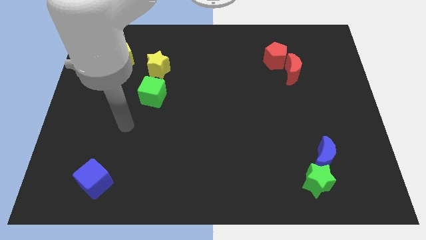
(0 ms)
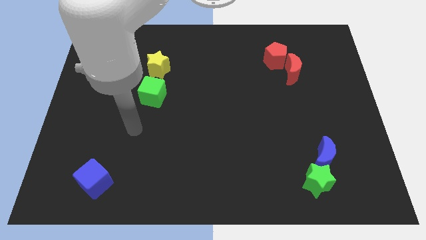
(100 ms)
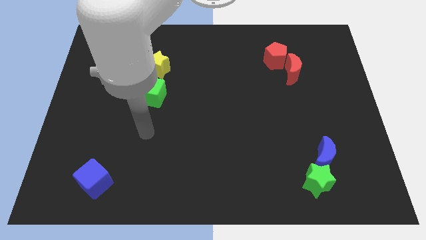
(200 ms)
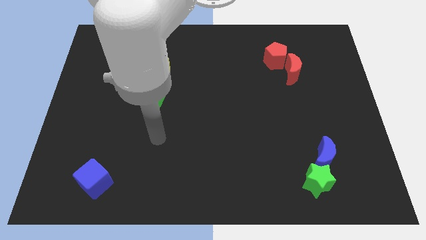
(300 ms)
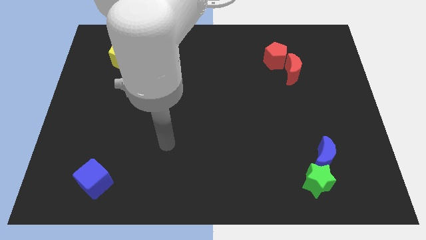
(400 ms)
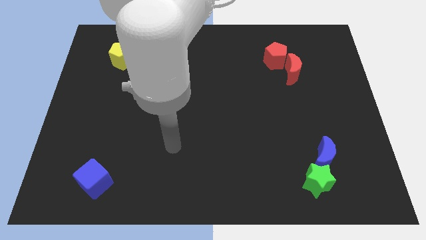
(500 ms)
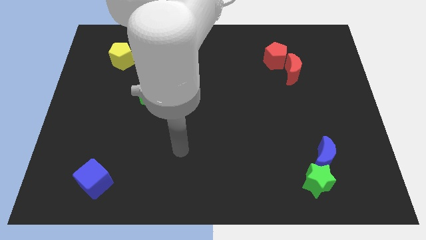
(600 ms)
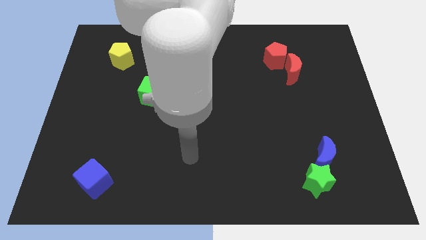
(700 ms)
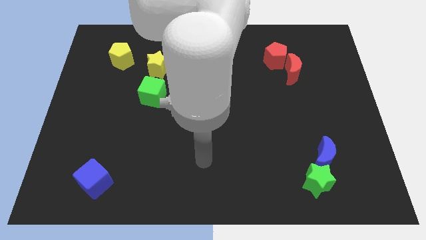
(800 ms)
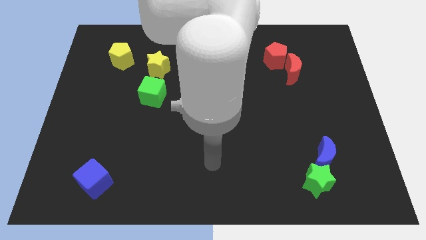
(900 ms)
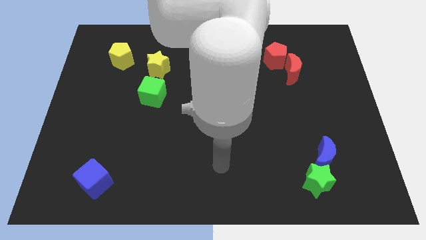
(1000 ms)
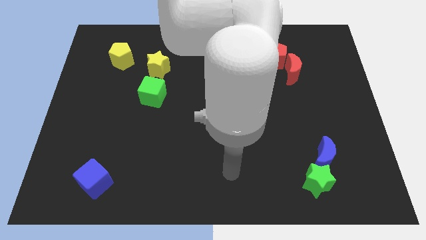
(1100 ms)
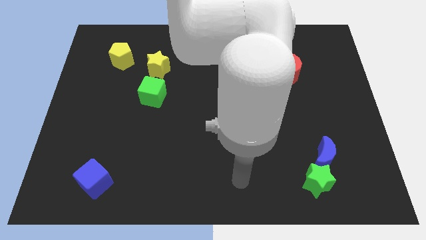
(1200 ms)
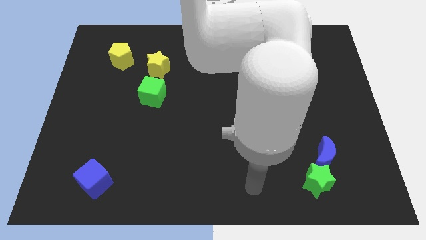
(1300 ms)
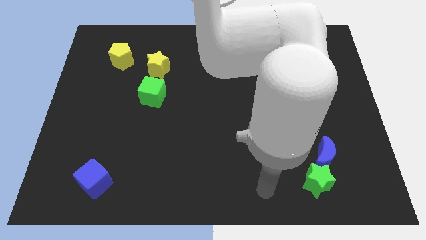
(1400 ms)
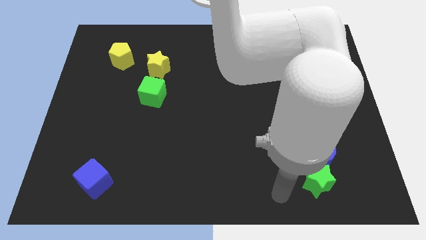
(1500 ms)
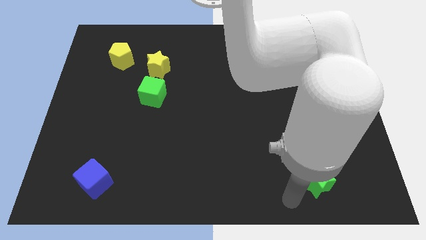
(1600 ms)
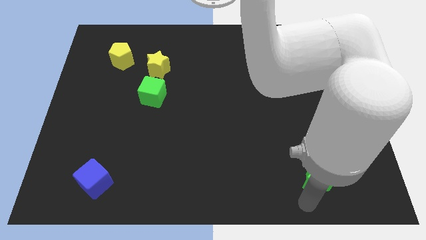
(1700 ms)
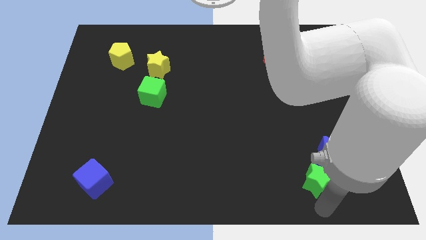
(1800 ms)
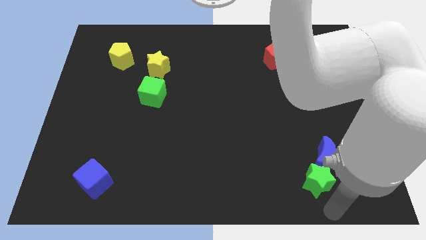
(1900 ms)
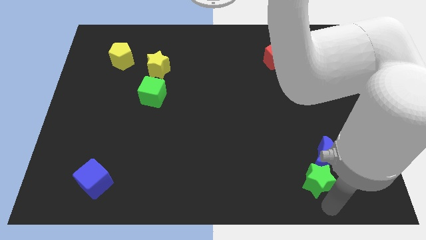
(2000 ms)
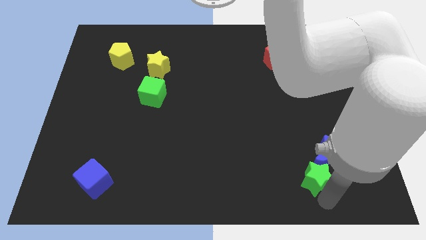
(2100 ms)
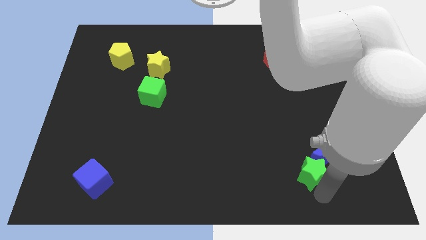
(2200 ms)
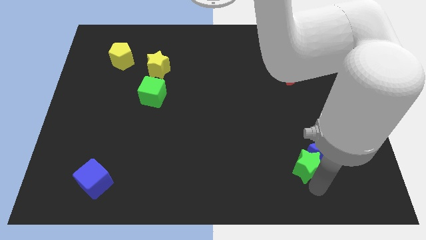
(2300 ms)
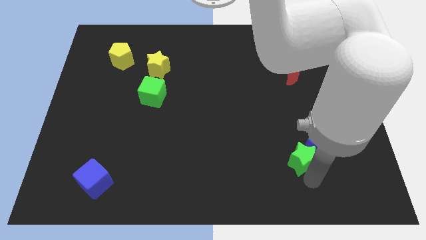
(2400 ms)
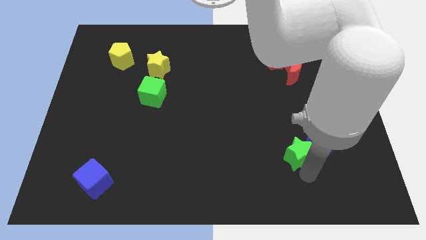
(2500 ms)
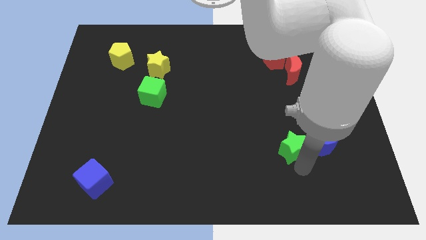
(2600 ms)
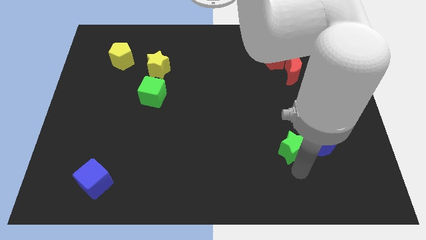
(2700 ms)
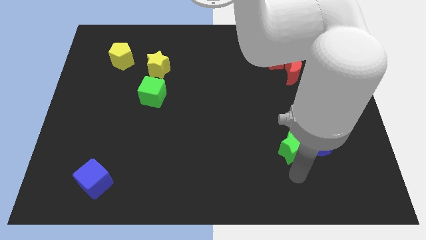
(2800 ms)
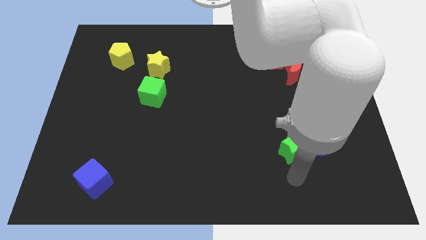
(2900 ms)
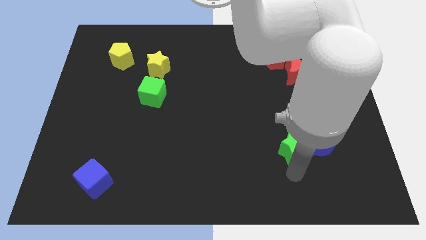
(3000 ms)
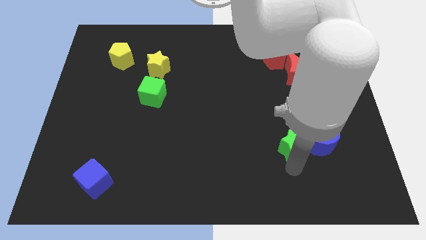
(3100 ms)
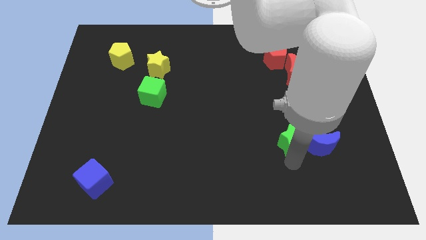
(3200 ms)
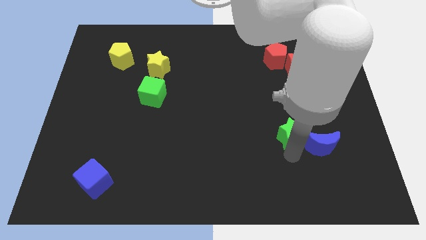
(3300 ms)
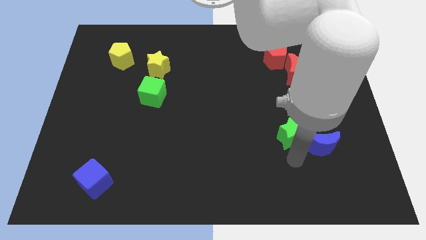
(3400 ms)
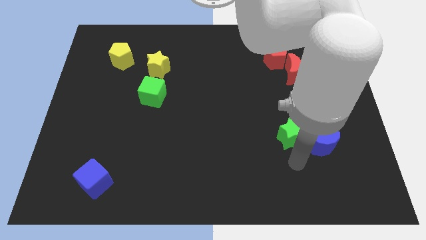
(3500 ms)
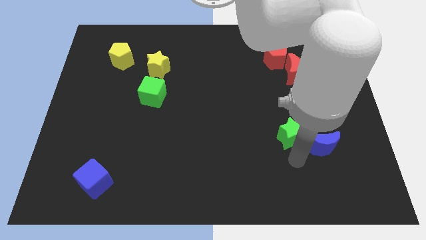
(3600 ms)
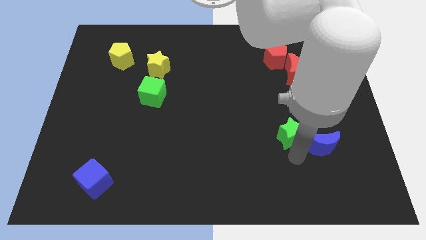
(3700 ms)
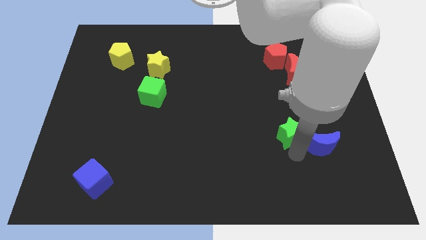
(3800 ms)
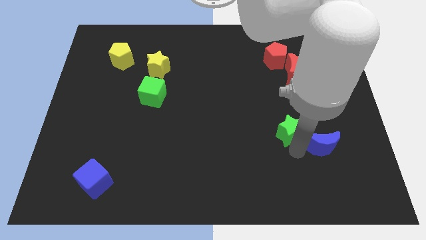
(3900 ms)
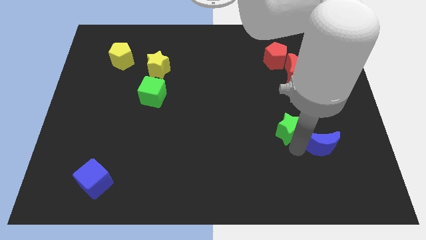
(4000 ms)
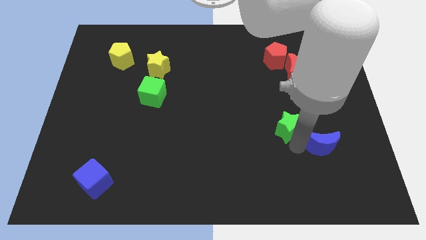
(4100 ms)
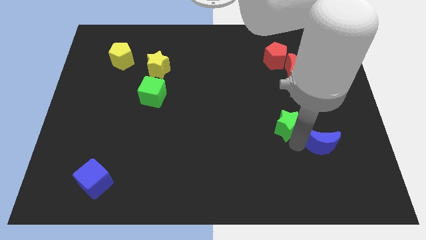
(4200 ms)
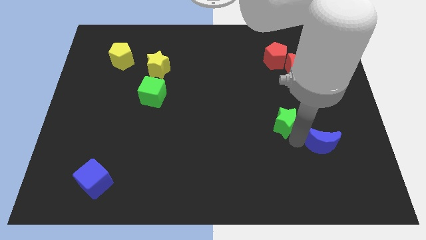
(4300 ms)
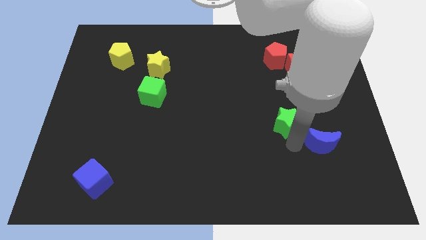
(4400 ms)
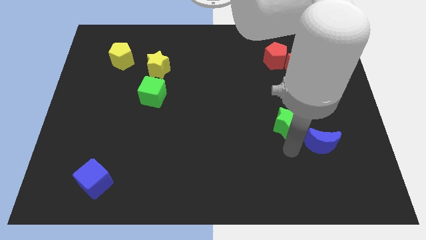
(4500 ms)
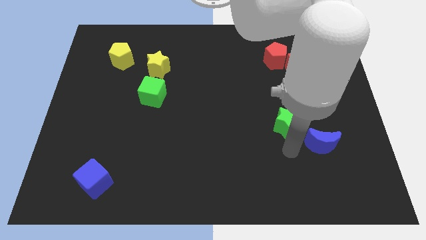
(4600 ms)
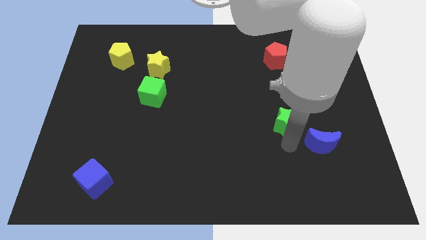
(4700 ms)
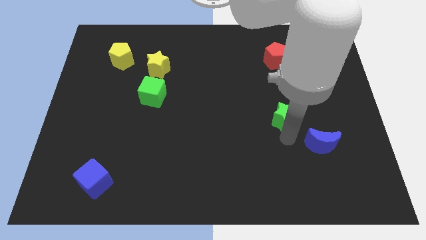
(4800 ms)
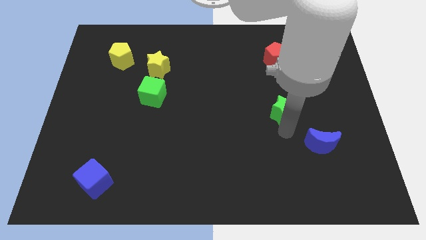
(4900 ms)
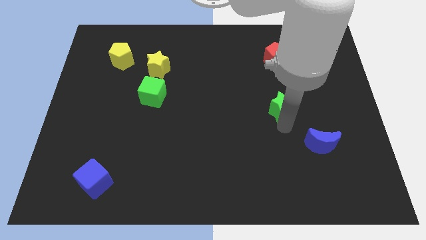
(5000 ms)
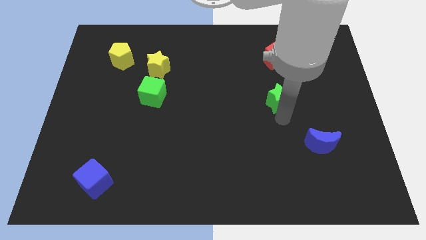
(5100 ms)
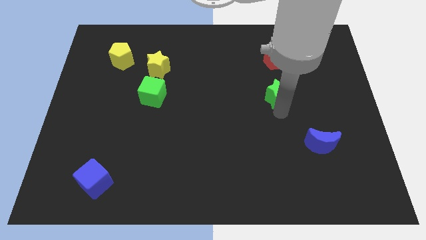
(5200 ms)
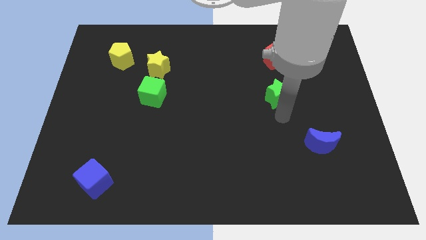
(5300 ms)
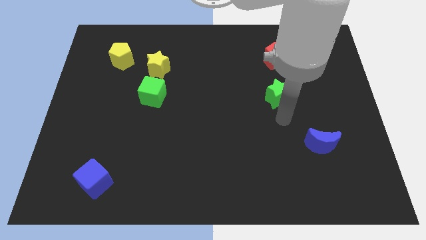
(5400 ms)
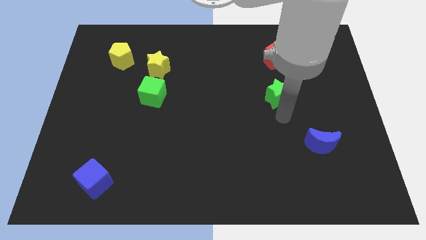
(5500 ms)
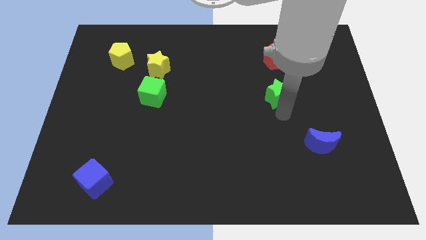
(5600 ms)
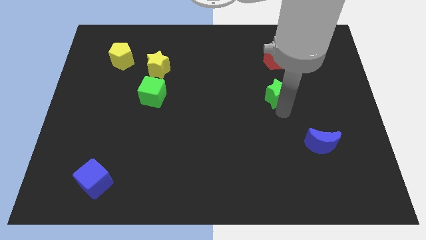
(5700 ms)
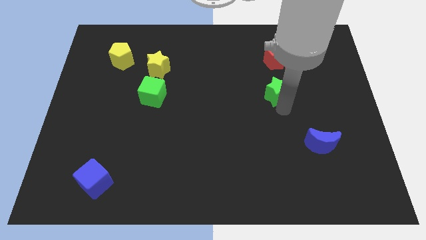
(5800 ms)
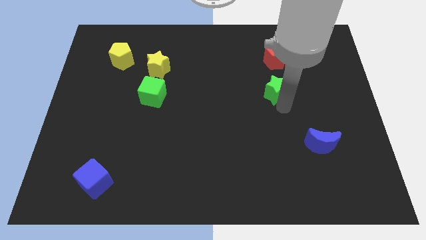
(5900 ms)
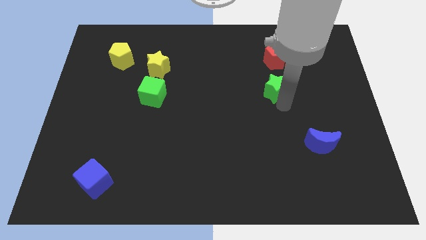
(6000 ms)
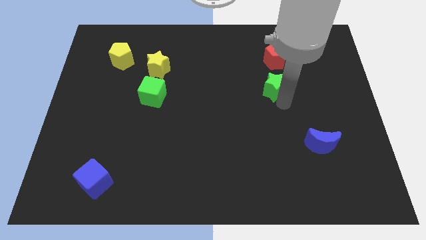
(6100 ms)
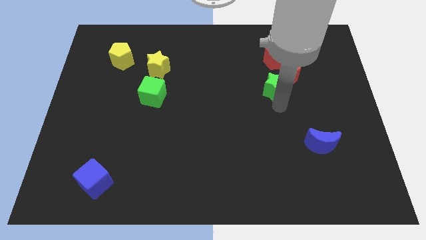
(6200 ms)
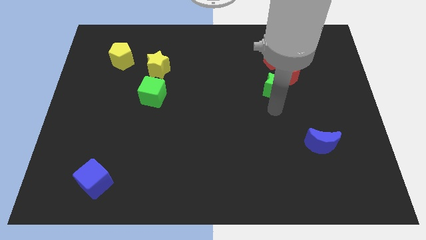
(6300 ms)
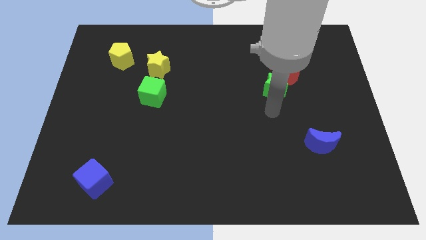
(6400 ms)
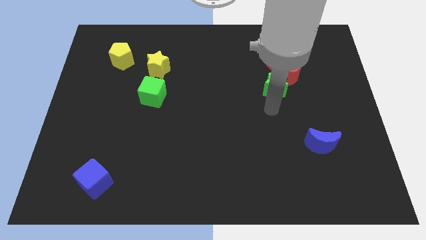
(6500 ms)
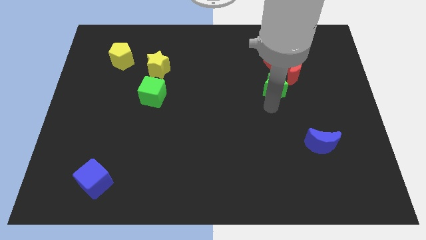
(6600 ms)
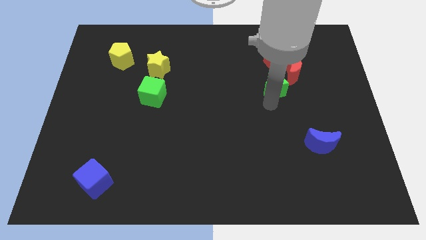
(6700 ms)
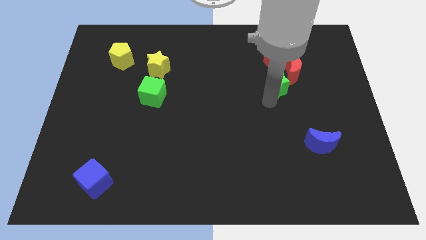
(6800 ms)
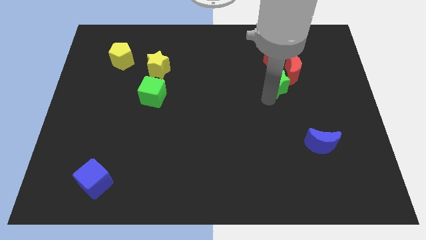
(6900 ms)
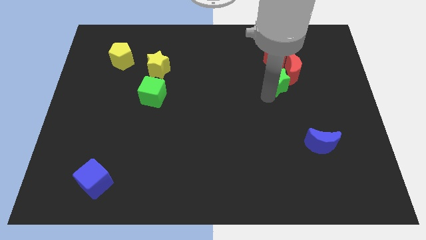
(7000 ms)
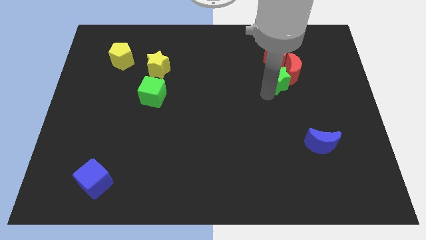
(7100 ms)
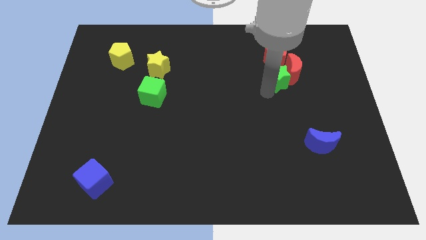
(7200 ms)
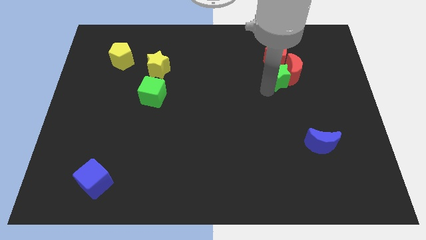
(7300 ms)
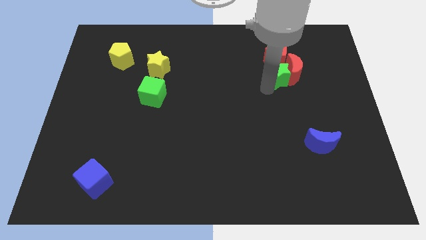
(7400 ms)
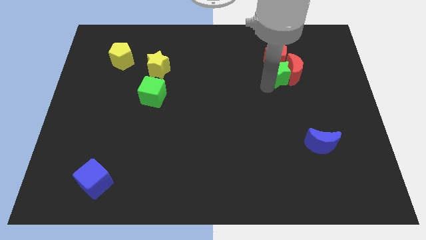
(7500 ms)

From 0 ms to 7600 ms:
slide the green star close to the red pentagon
